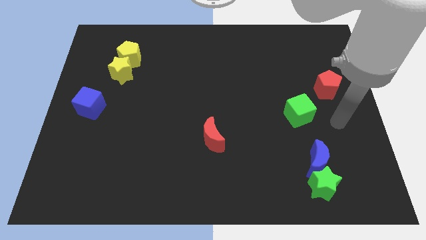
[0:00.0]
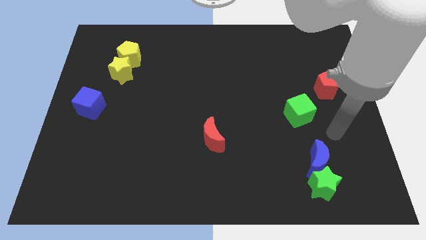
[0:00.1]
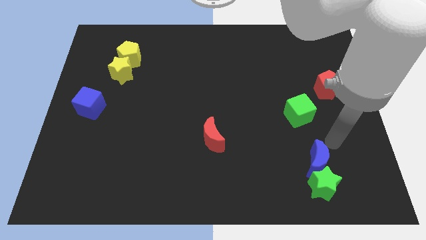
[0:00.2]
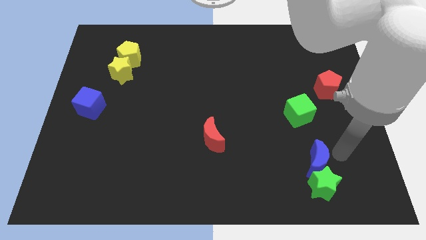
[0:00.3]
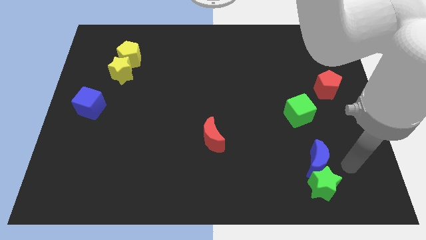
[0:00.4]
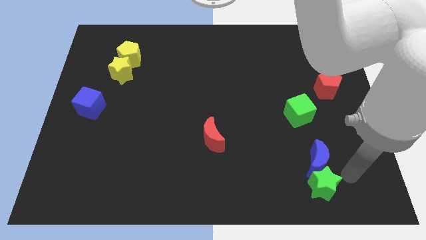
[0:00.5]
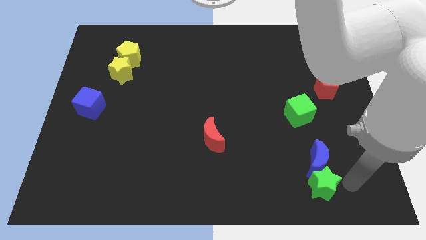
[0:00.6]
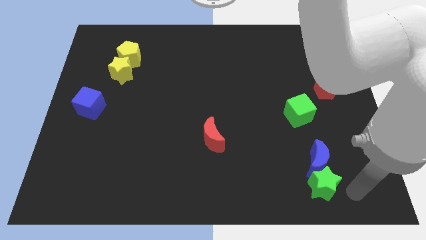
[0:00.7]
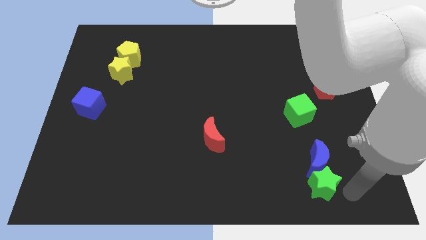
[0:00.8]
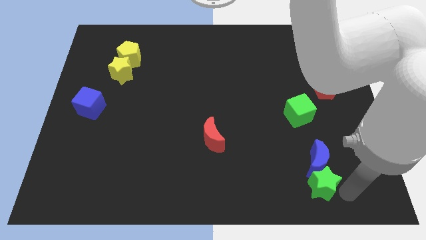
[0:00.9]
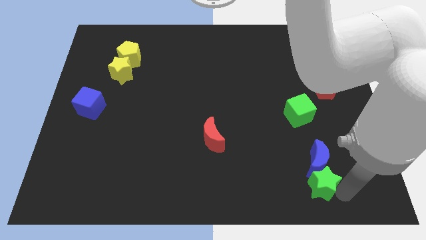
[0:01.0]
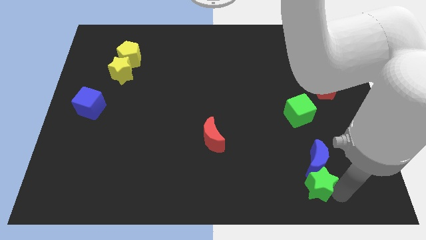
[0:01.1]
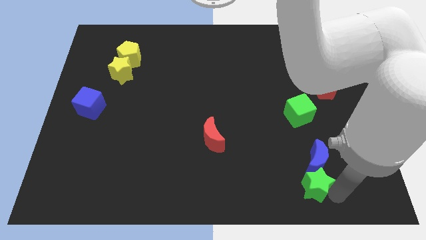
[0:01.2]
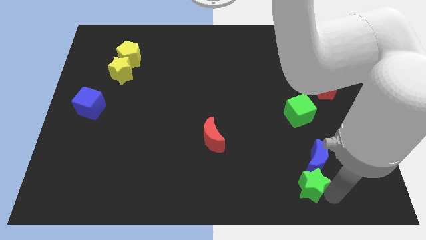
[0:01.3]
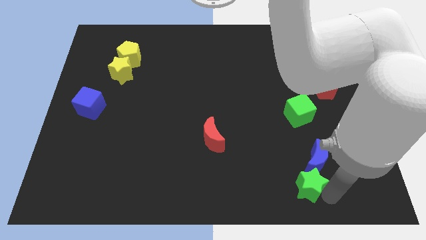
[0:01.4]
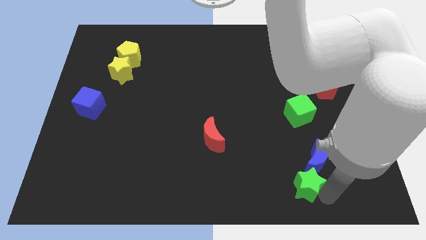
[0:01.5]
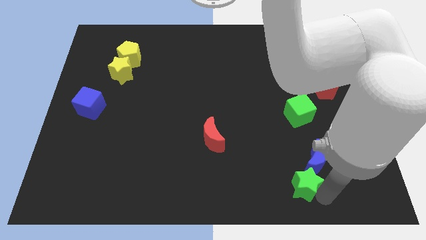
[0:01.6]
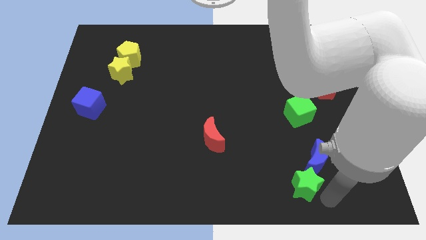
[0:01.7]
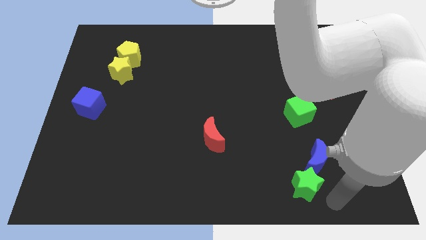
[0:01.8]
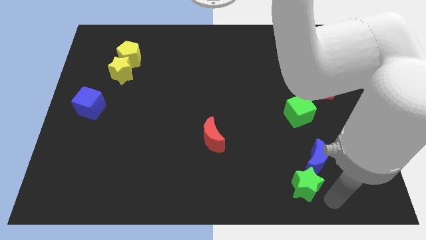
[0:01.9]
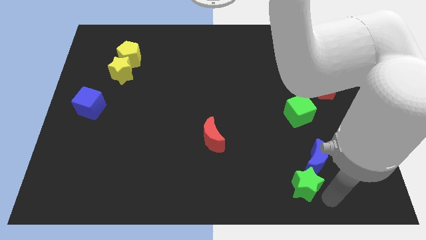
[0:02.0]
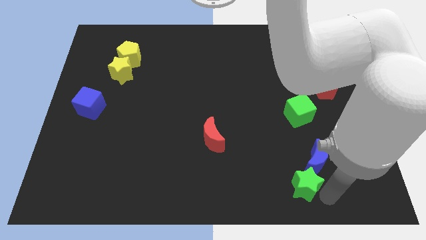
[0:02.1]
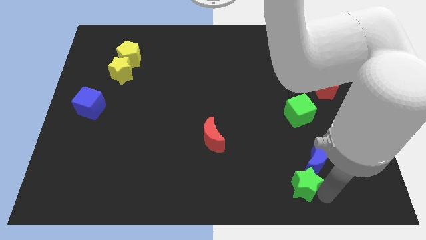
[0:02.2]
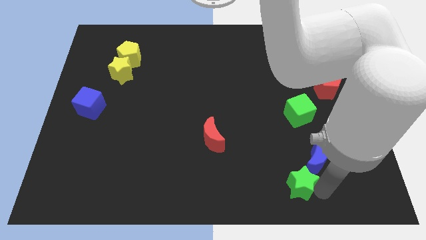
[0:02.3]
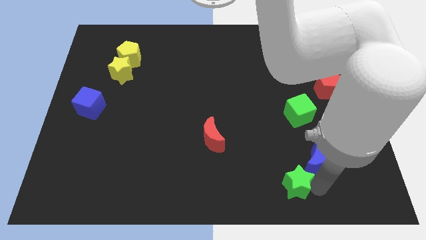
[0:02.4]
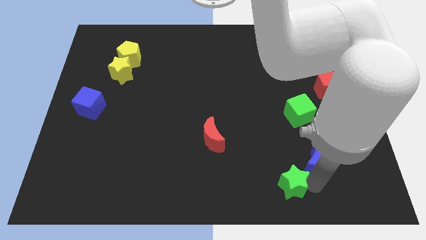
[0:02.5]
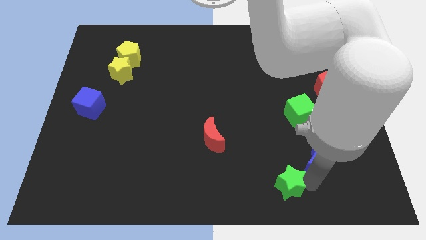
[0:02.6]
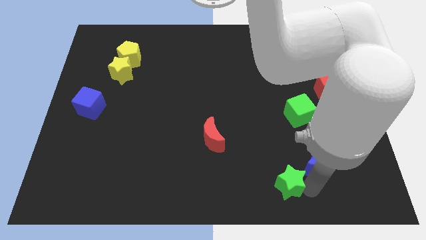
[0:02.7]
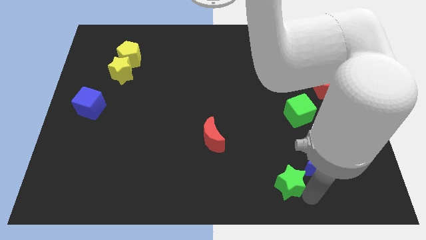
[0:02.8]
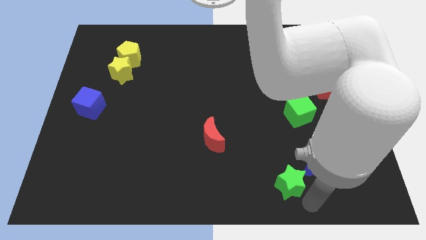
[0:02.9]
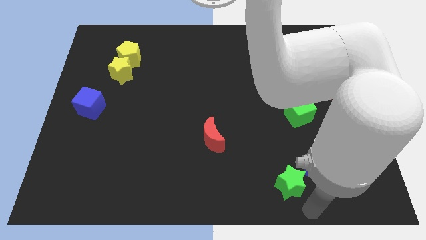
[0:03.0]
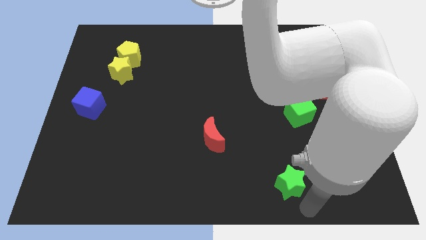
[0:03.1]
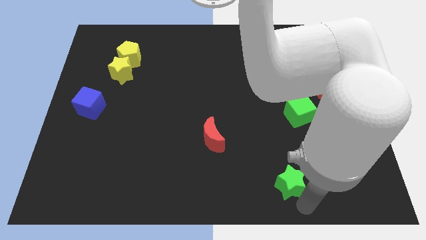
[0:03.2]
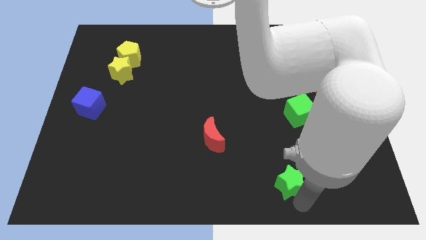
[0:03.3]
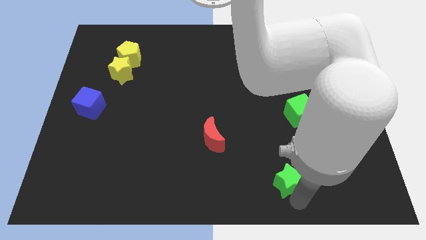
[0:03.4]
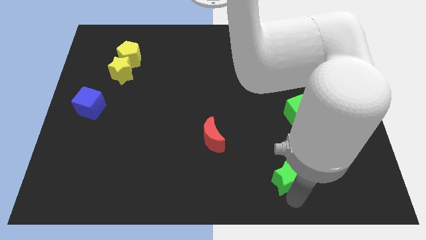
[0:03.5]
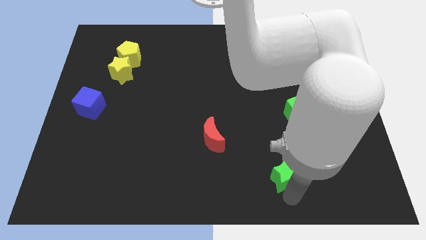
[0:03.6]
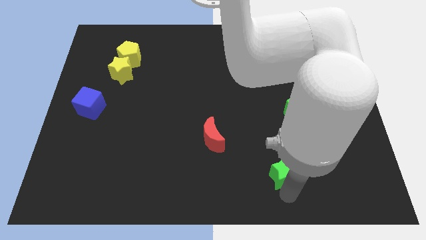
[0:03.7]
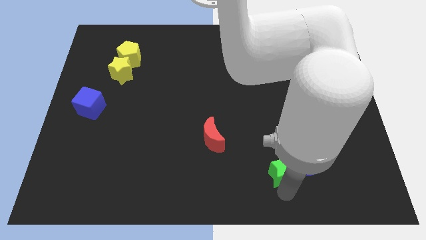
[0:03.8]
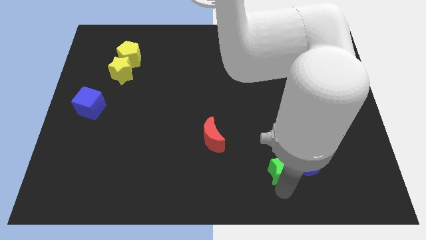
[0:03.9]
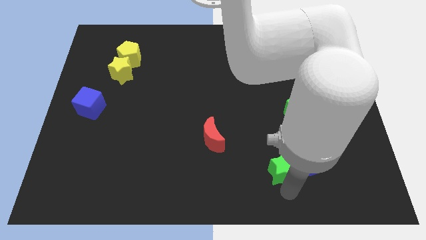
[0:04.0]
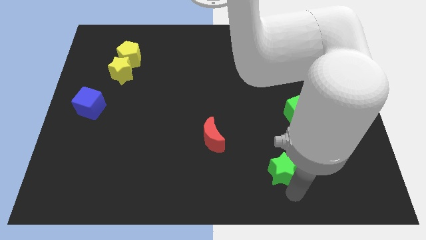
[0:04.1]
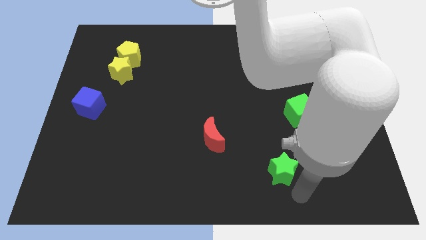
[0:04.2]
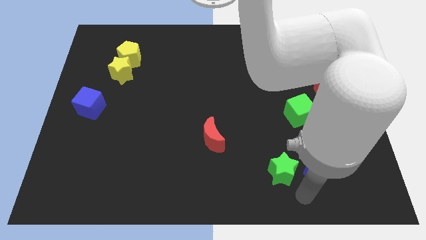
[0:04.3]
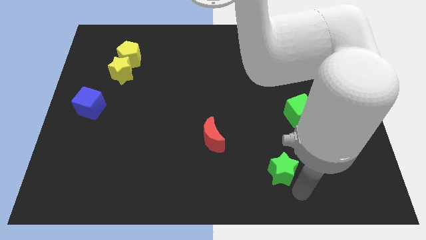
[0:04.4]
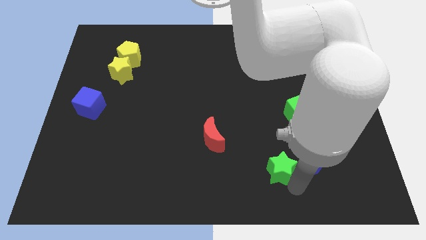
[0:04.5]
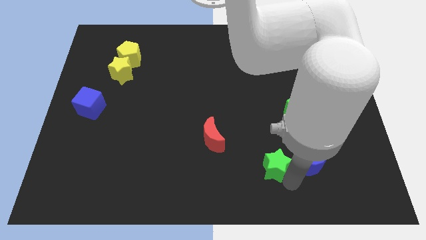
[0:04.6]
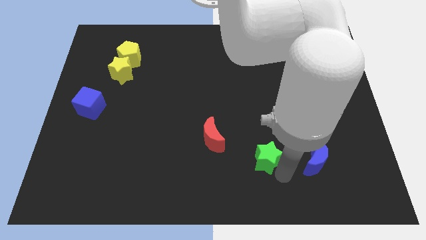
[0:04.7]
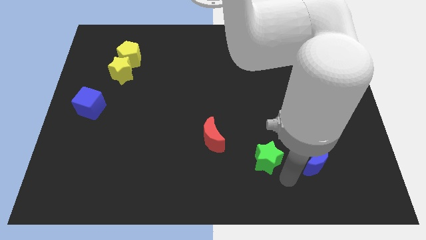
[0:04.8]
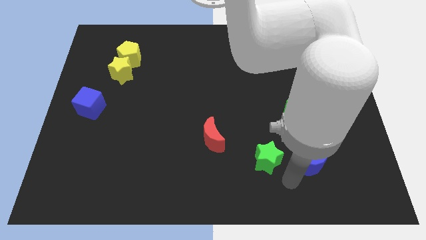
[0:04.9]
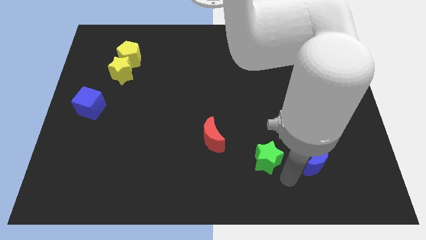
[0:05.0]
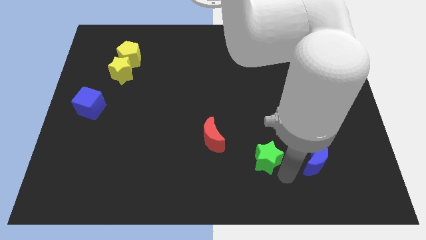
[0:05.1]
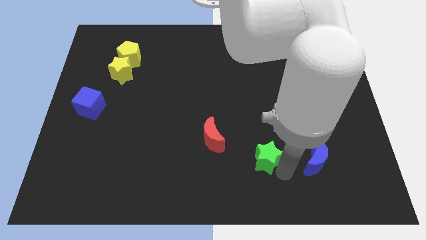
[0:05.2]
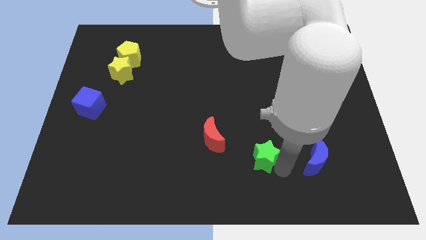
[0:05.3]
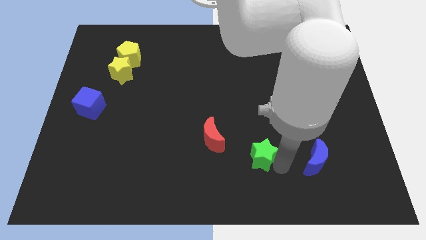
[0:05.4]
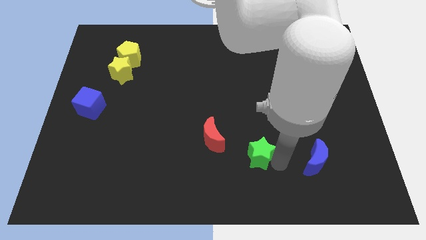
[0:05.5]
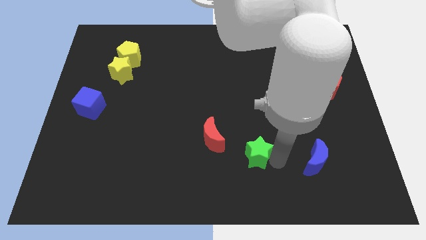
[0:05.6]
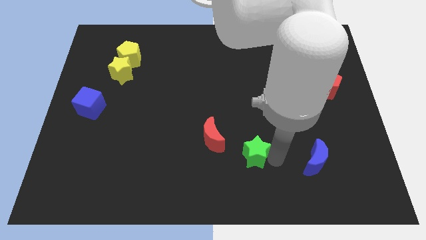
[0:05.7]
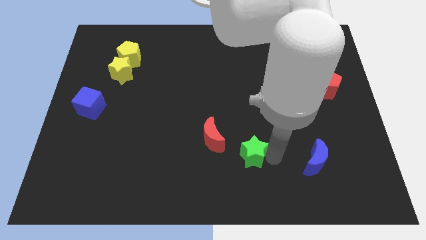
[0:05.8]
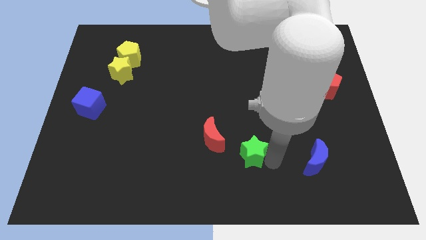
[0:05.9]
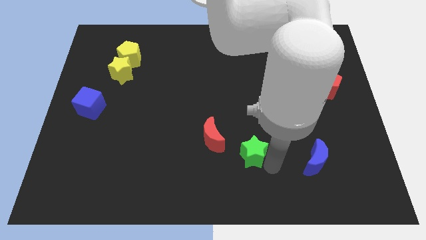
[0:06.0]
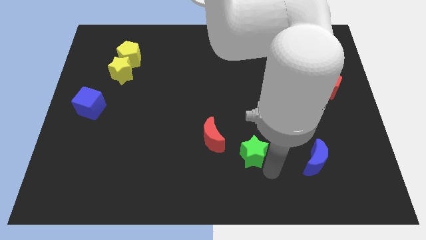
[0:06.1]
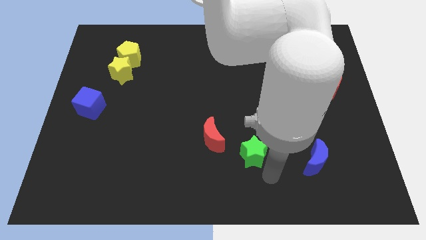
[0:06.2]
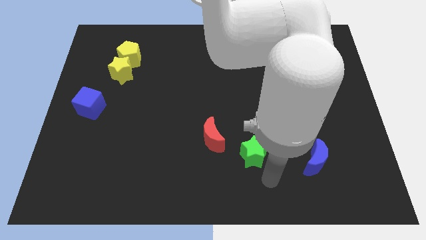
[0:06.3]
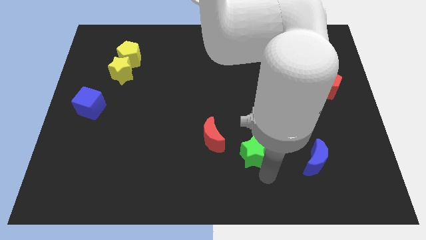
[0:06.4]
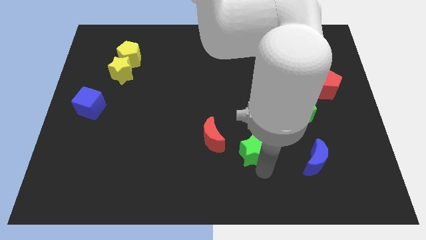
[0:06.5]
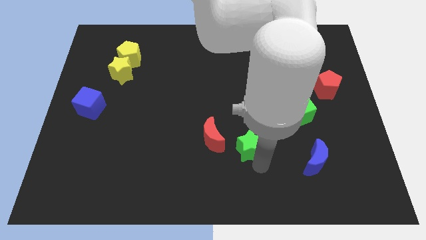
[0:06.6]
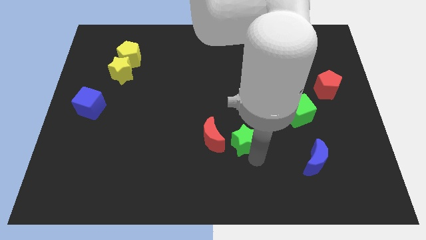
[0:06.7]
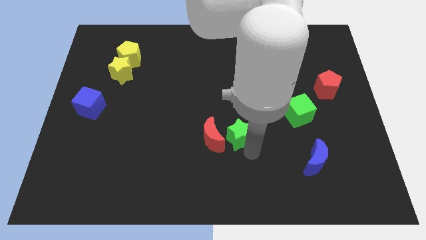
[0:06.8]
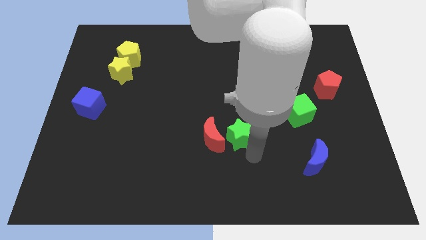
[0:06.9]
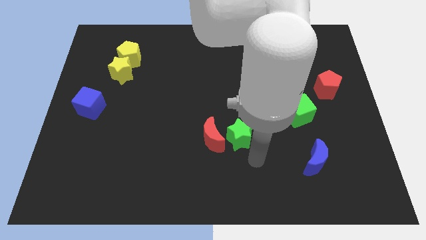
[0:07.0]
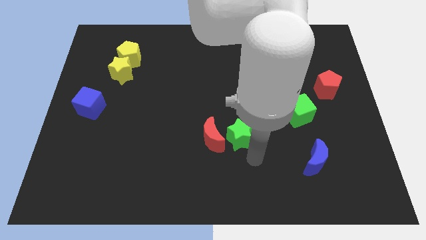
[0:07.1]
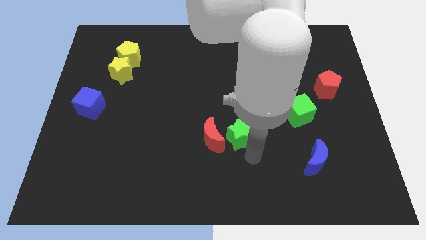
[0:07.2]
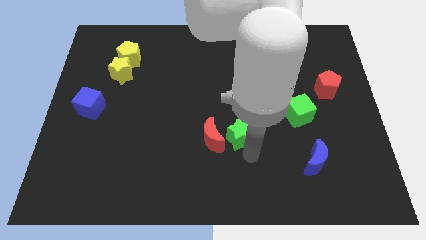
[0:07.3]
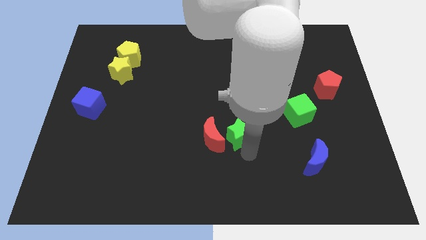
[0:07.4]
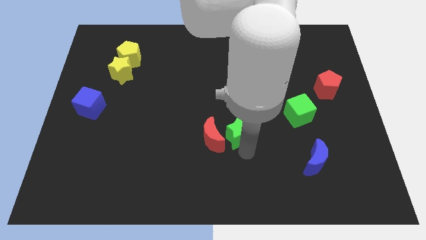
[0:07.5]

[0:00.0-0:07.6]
move the green star upwards and left diagonally

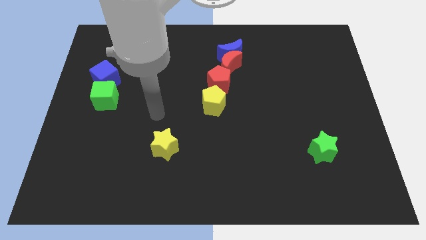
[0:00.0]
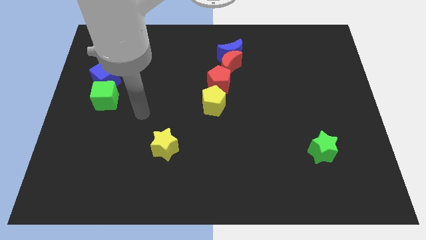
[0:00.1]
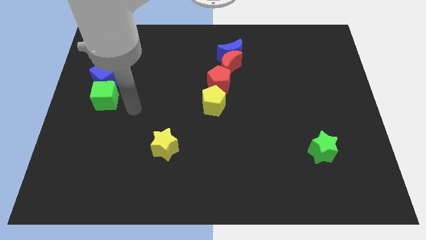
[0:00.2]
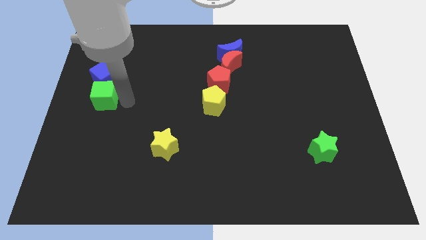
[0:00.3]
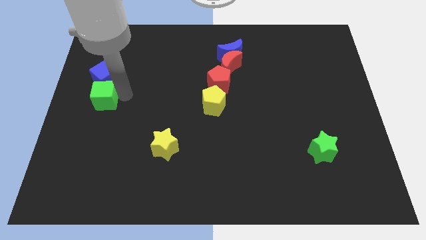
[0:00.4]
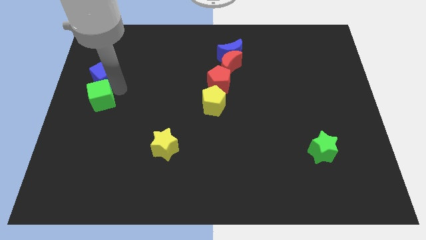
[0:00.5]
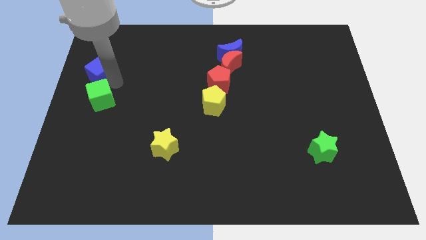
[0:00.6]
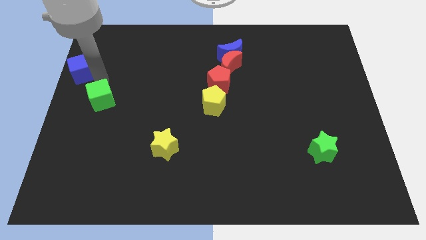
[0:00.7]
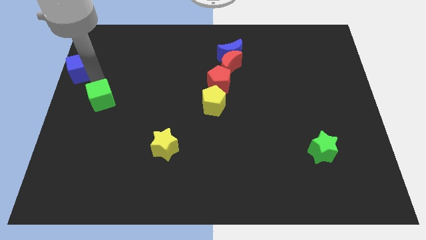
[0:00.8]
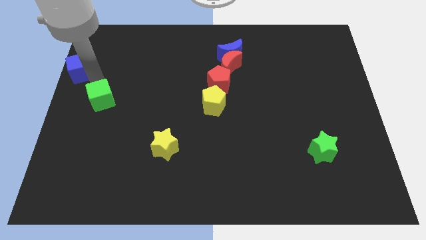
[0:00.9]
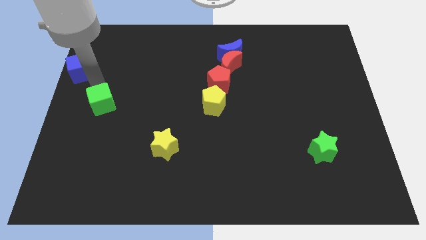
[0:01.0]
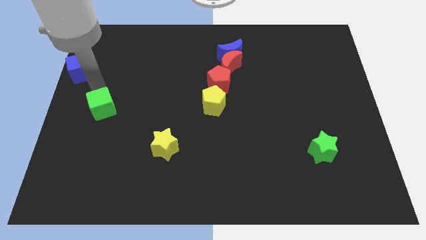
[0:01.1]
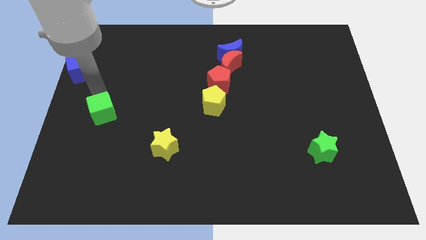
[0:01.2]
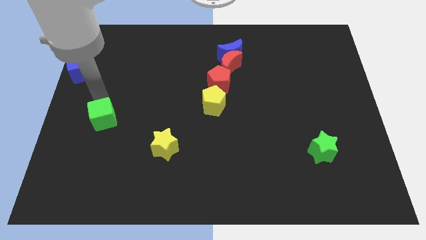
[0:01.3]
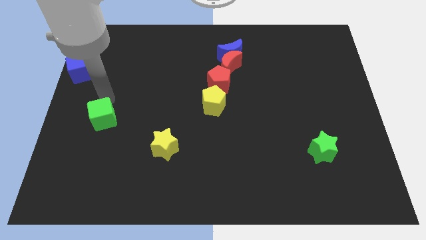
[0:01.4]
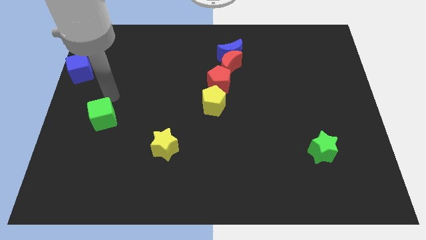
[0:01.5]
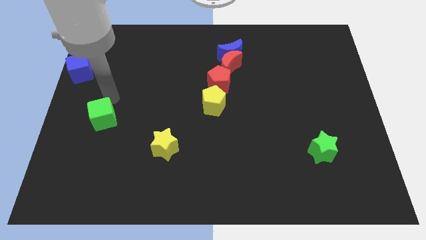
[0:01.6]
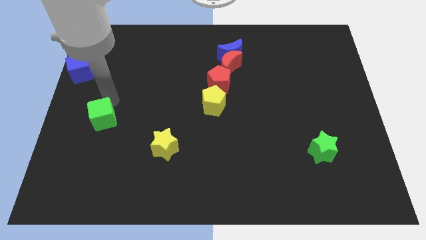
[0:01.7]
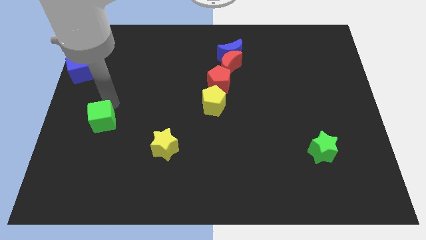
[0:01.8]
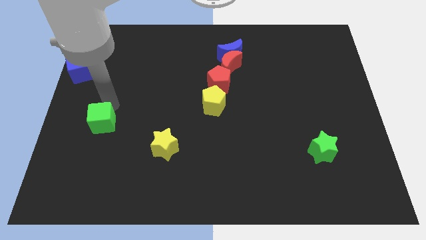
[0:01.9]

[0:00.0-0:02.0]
slightly slide the green cube downwards
